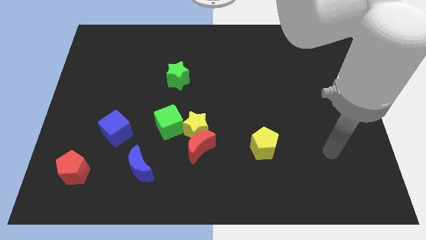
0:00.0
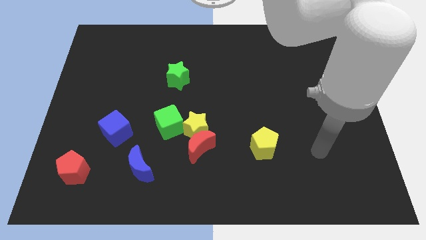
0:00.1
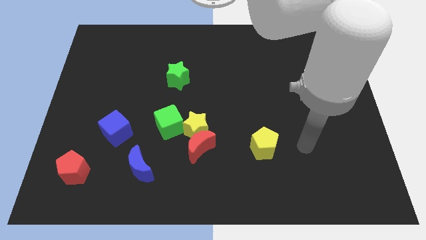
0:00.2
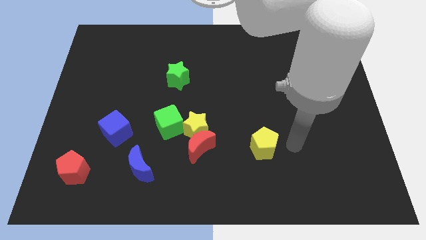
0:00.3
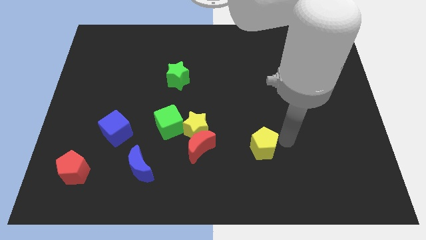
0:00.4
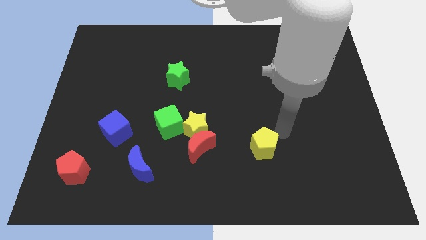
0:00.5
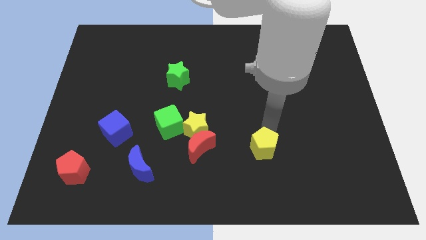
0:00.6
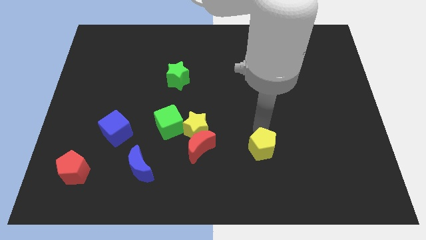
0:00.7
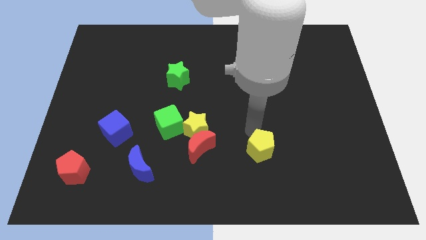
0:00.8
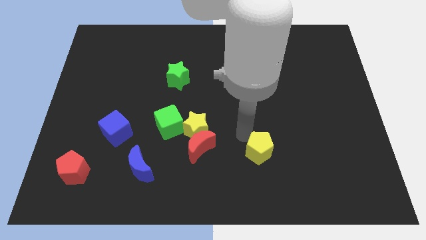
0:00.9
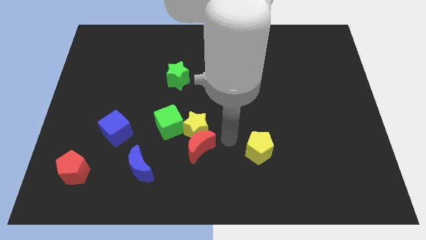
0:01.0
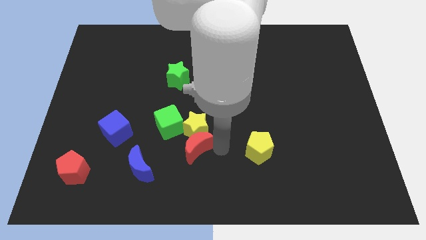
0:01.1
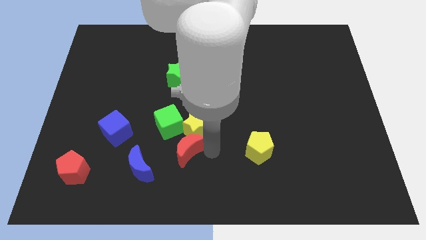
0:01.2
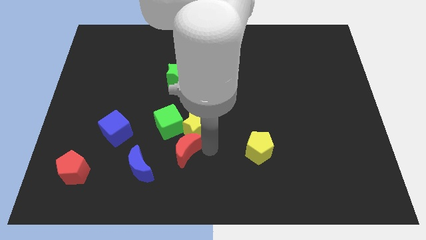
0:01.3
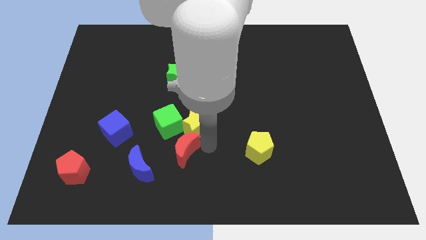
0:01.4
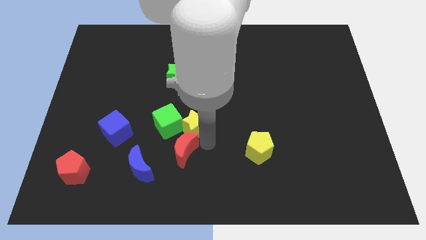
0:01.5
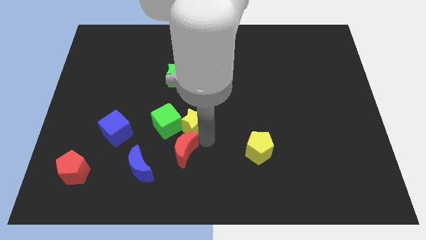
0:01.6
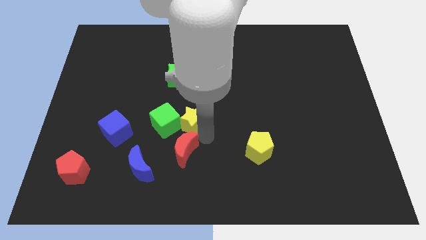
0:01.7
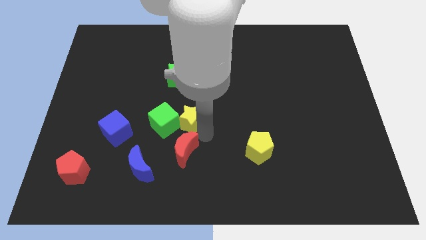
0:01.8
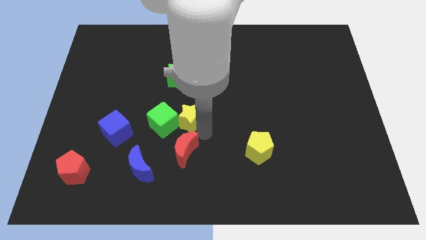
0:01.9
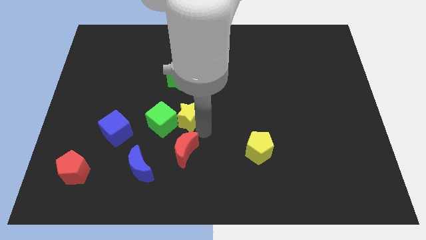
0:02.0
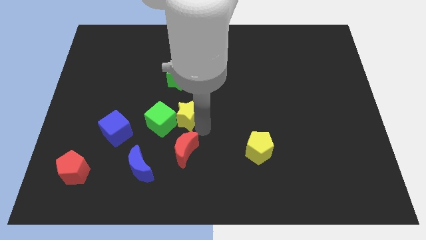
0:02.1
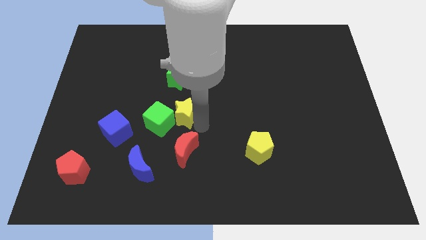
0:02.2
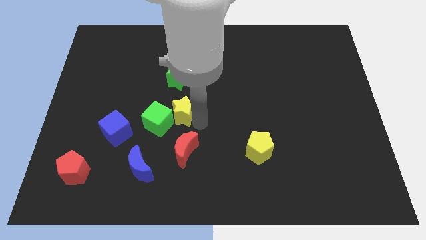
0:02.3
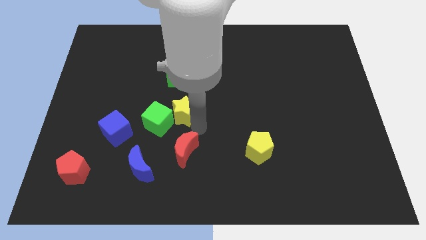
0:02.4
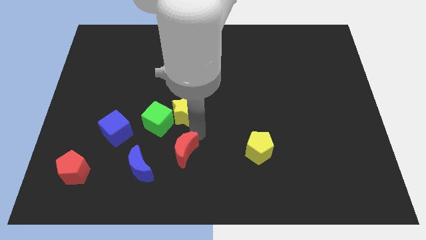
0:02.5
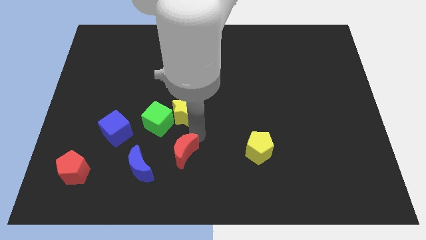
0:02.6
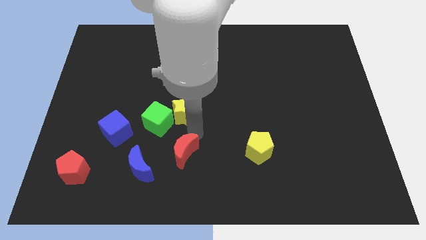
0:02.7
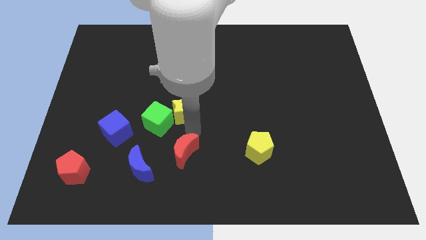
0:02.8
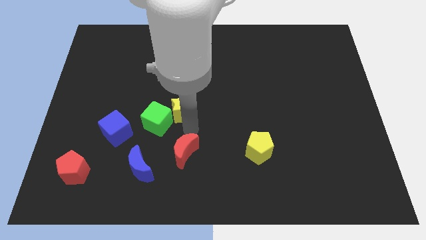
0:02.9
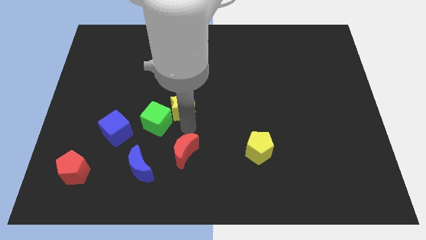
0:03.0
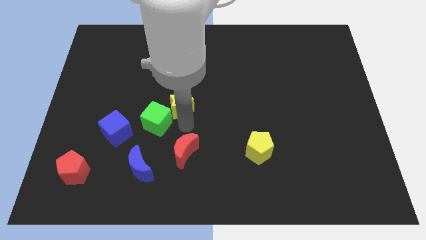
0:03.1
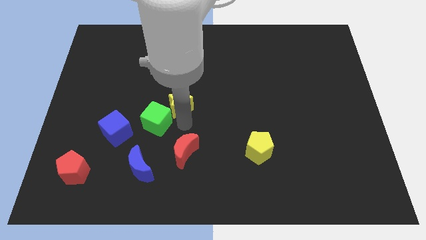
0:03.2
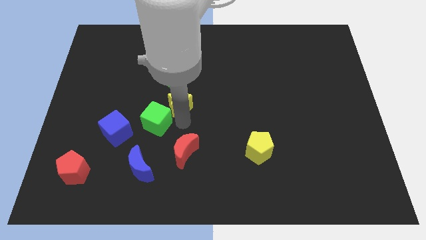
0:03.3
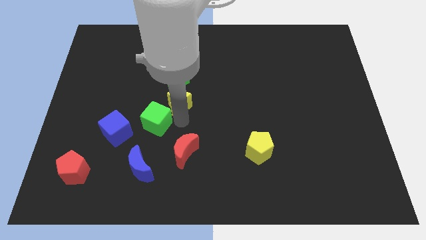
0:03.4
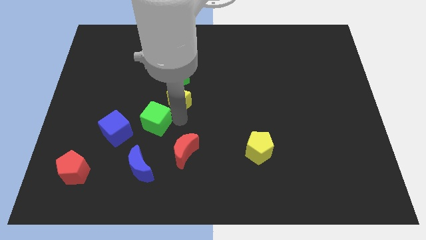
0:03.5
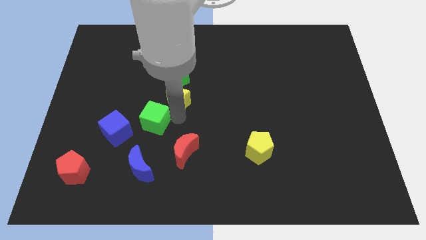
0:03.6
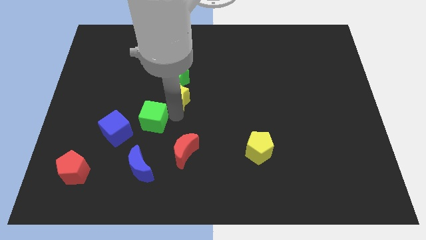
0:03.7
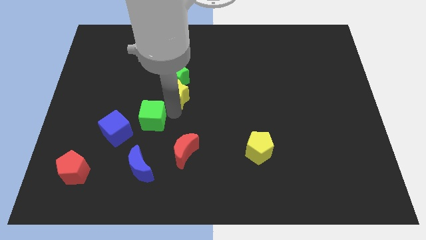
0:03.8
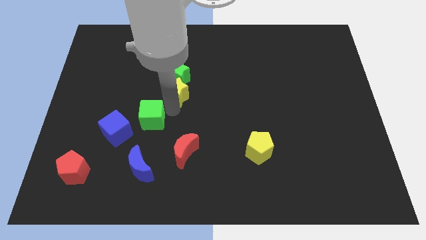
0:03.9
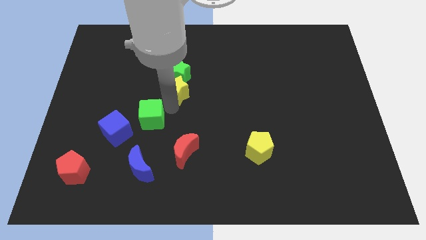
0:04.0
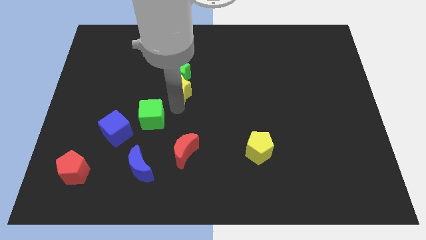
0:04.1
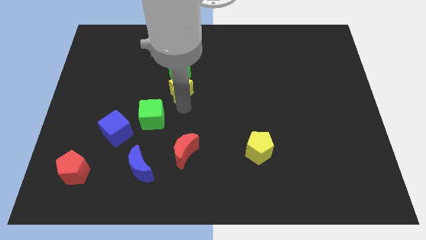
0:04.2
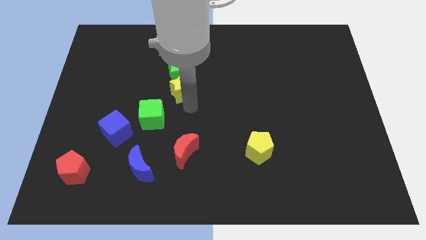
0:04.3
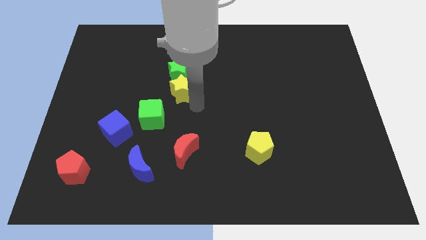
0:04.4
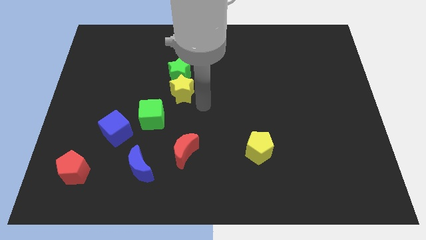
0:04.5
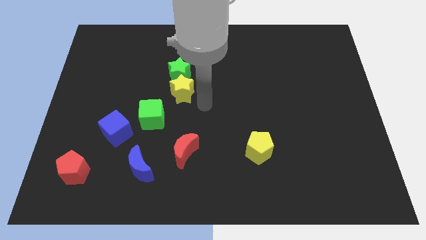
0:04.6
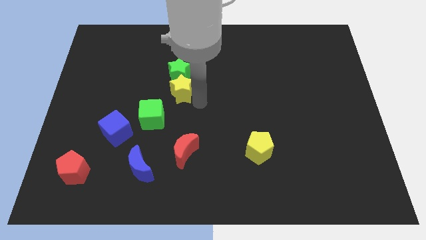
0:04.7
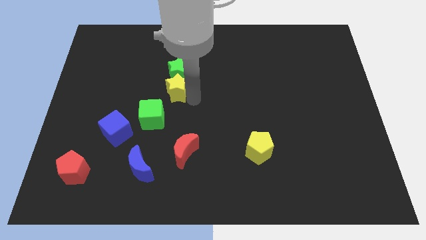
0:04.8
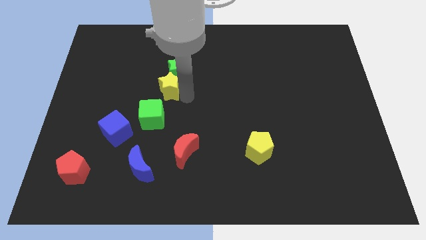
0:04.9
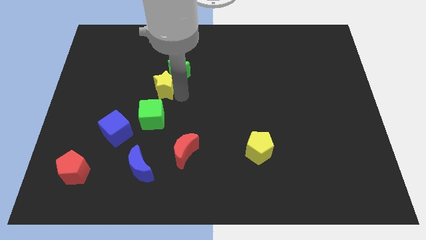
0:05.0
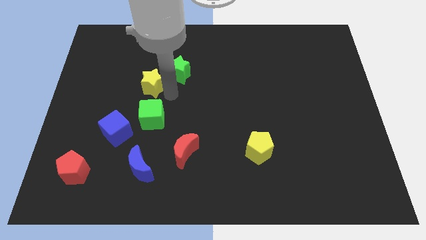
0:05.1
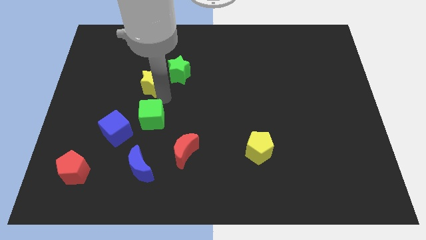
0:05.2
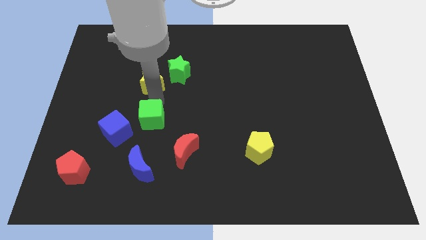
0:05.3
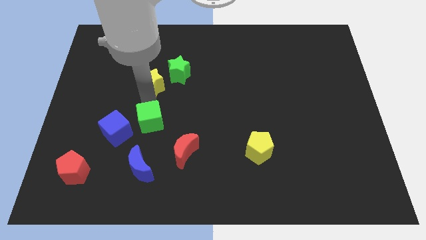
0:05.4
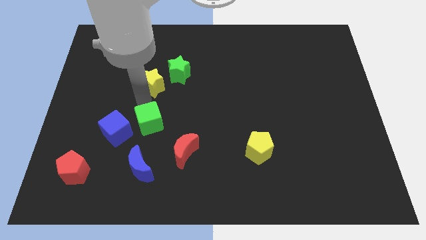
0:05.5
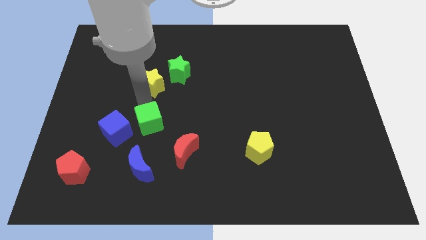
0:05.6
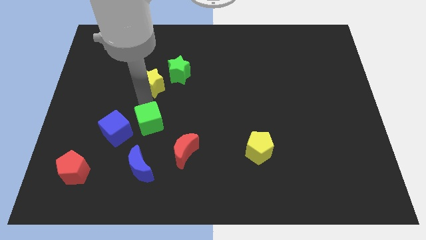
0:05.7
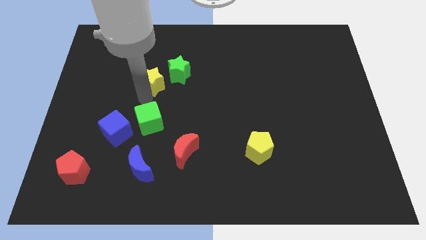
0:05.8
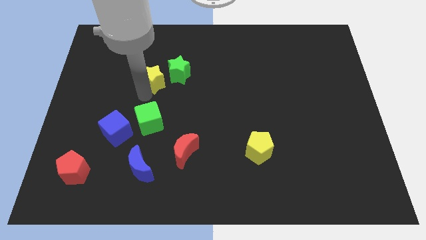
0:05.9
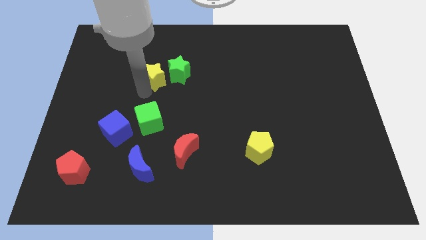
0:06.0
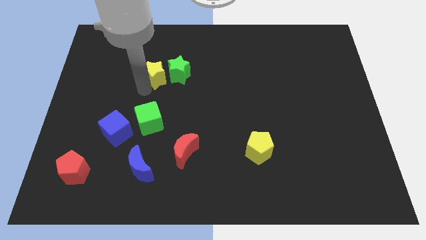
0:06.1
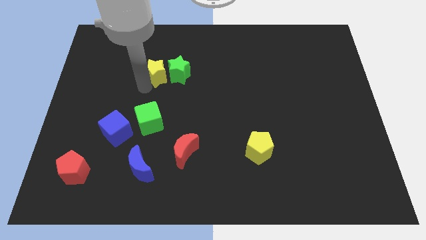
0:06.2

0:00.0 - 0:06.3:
slide the yellow star diagonally up and to the left of the green star
